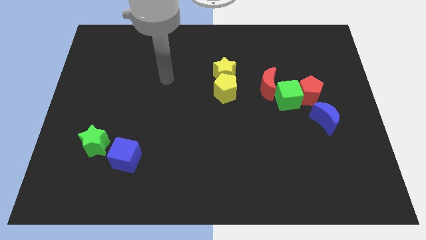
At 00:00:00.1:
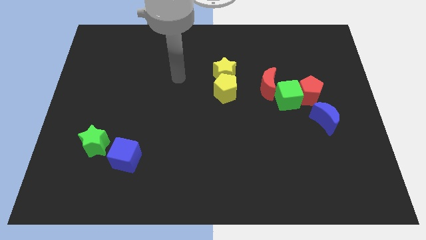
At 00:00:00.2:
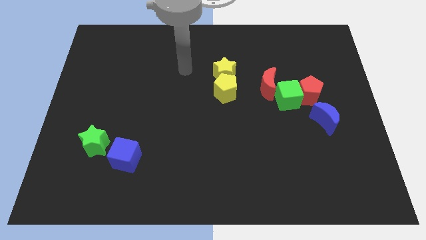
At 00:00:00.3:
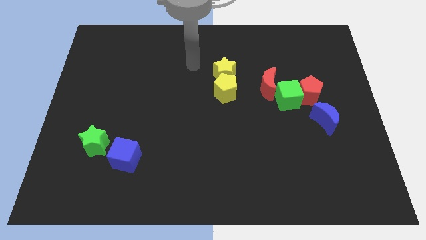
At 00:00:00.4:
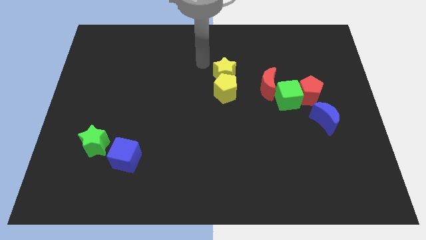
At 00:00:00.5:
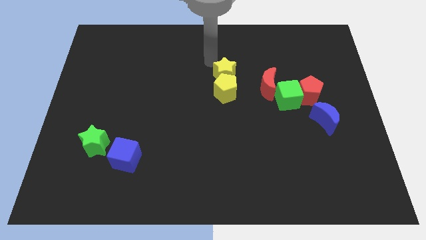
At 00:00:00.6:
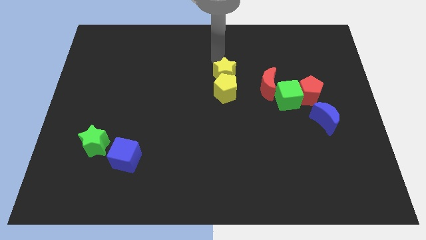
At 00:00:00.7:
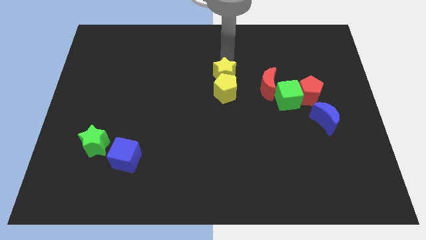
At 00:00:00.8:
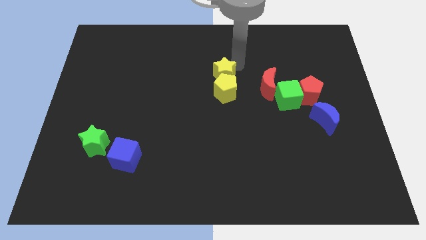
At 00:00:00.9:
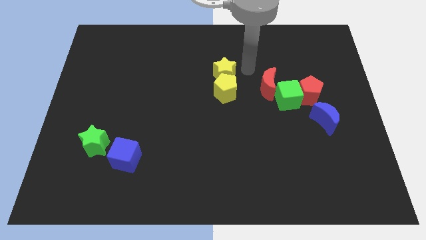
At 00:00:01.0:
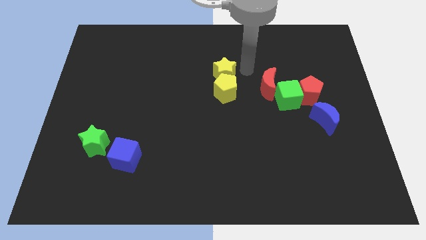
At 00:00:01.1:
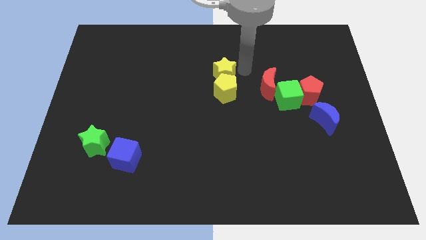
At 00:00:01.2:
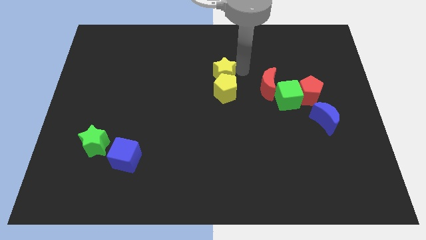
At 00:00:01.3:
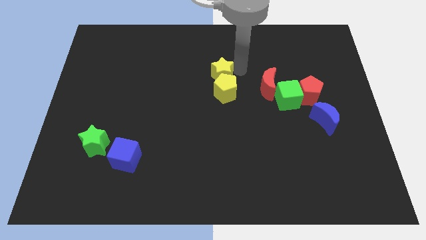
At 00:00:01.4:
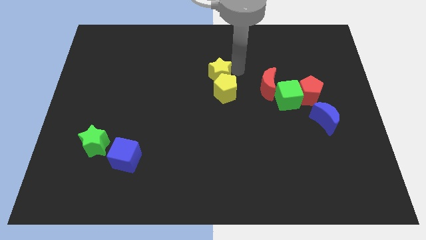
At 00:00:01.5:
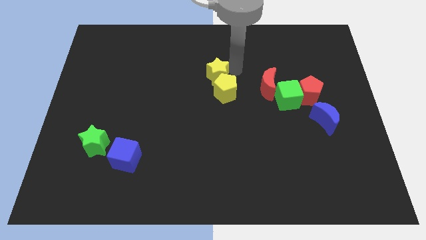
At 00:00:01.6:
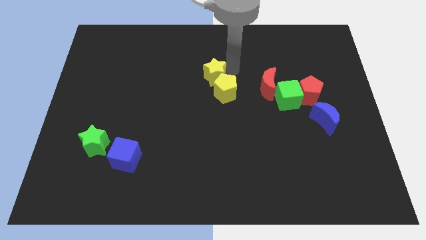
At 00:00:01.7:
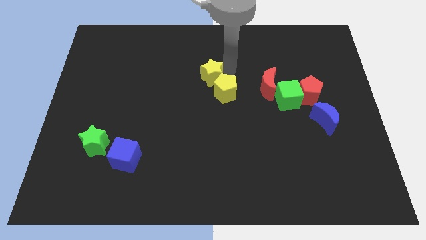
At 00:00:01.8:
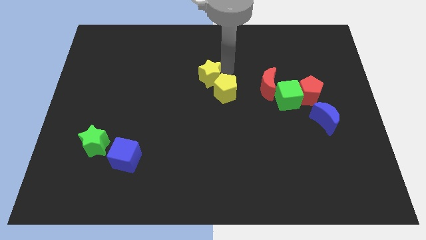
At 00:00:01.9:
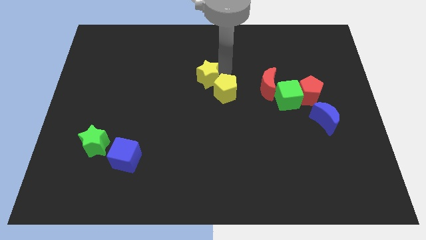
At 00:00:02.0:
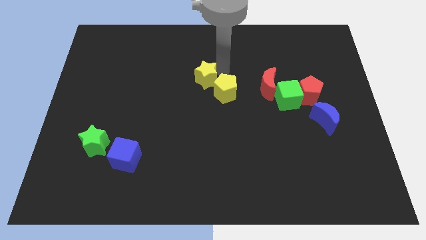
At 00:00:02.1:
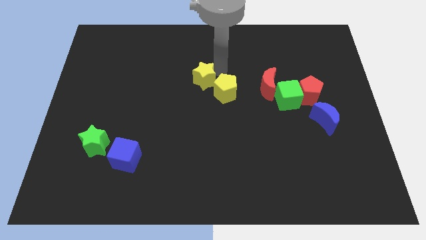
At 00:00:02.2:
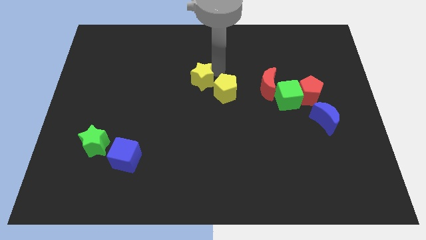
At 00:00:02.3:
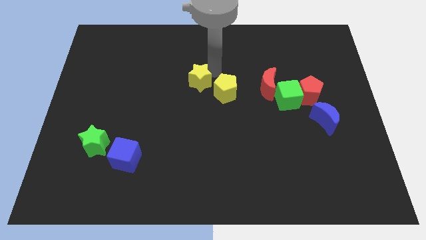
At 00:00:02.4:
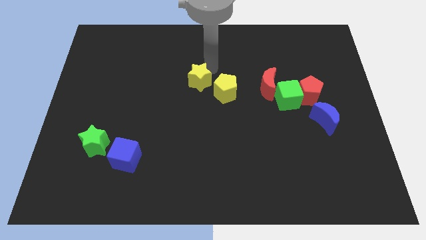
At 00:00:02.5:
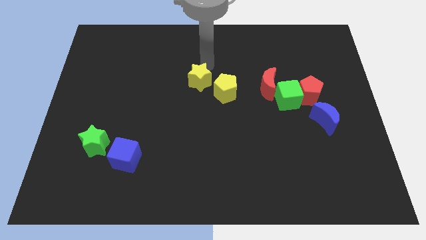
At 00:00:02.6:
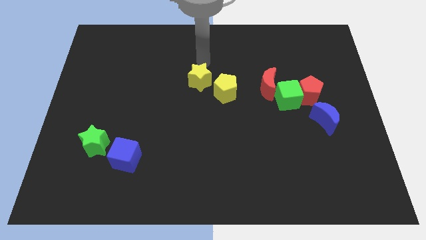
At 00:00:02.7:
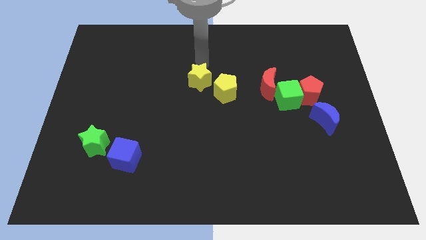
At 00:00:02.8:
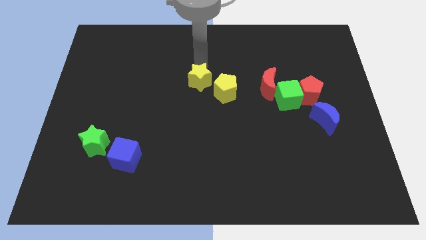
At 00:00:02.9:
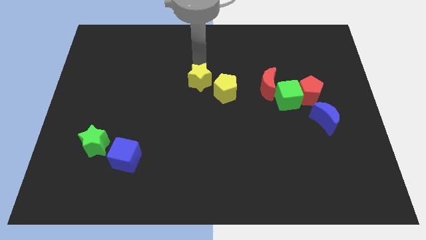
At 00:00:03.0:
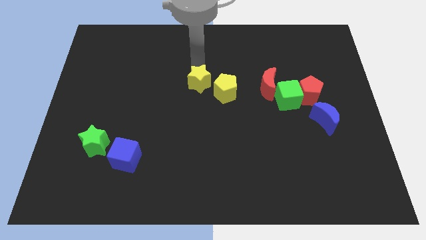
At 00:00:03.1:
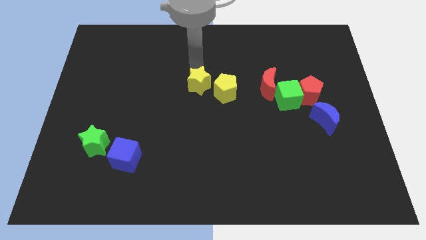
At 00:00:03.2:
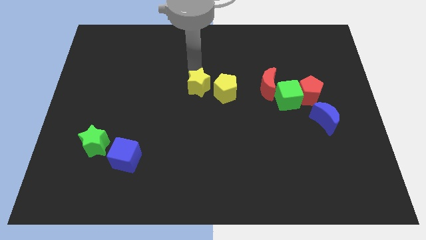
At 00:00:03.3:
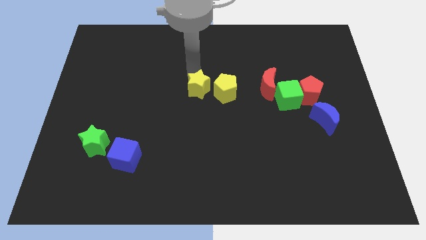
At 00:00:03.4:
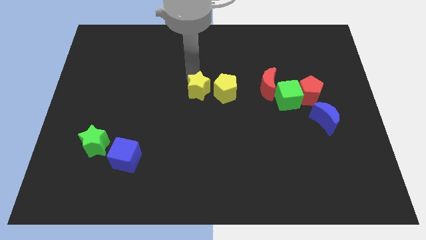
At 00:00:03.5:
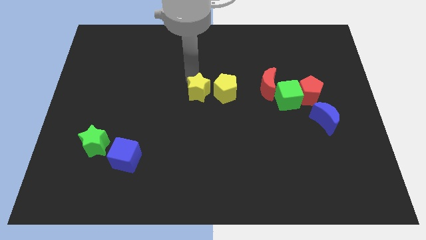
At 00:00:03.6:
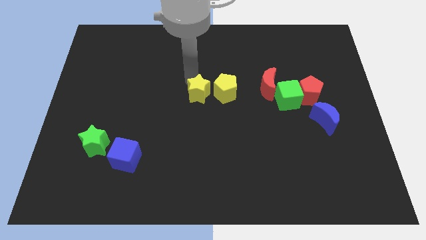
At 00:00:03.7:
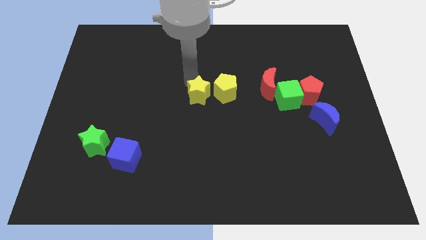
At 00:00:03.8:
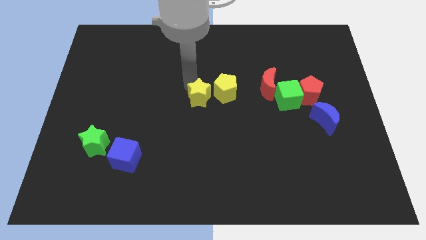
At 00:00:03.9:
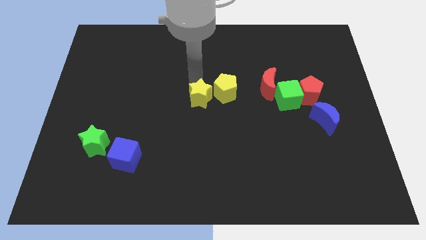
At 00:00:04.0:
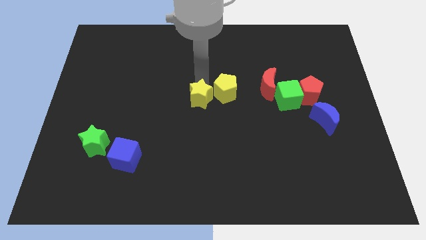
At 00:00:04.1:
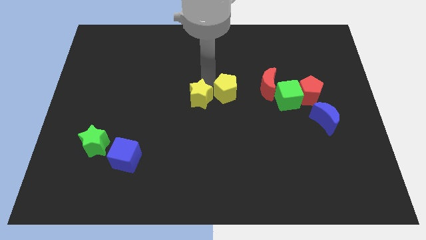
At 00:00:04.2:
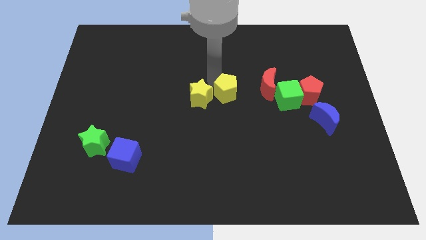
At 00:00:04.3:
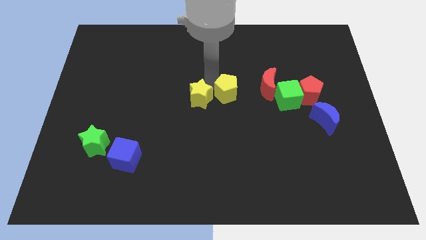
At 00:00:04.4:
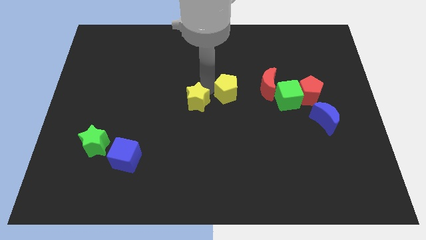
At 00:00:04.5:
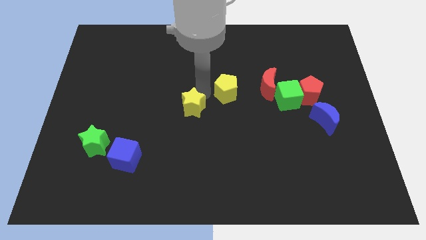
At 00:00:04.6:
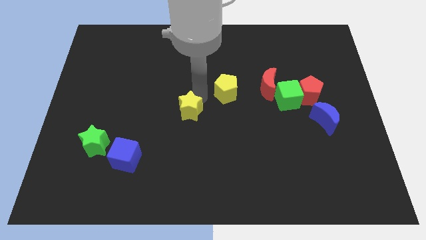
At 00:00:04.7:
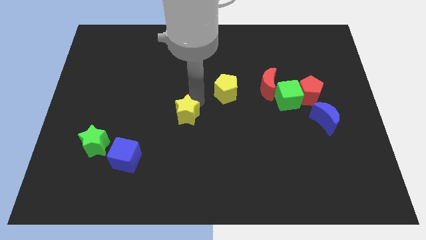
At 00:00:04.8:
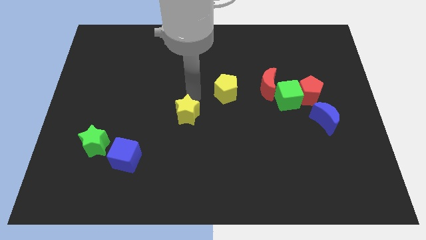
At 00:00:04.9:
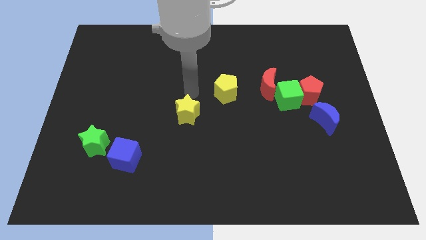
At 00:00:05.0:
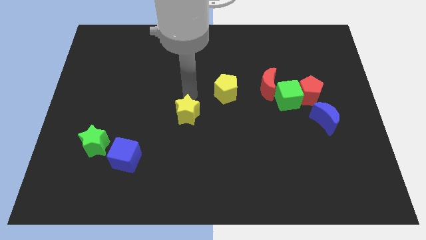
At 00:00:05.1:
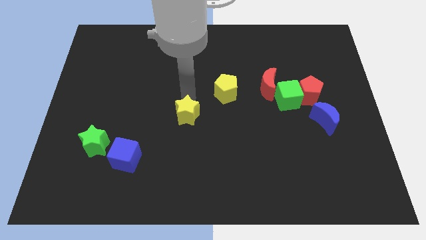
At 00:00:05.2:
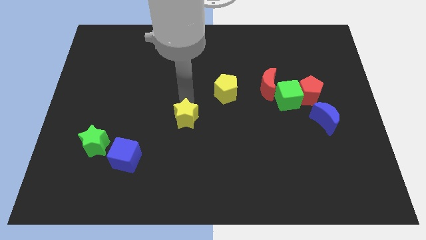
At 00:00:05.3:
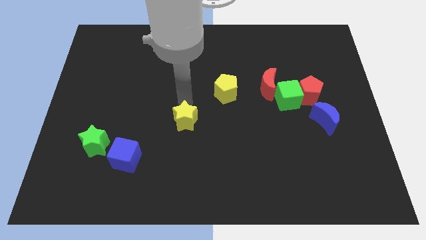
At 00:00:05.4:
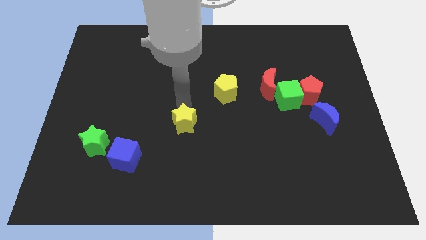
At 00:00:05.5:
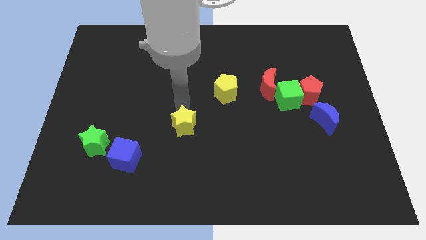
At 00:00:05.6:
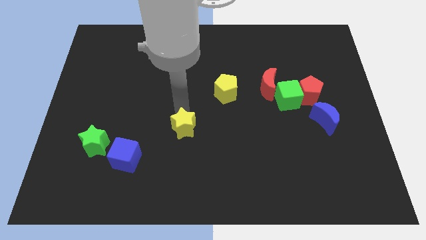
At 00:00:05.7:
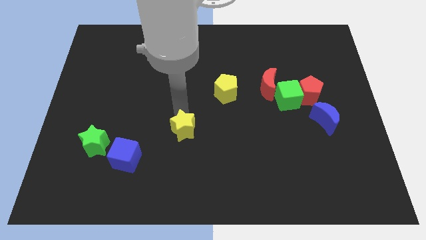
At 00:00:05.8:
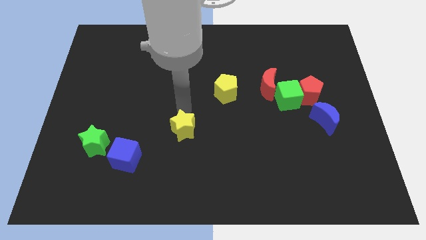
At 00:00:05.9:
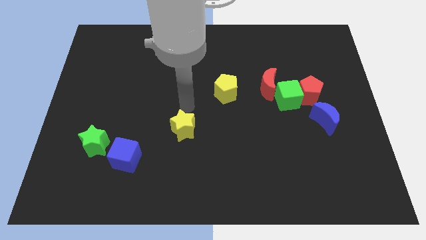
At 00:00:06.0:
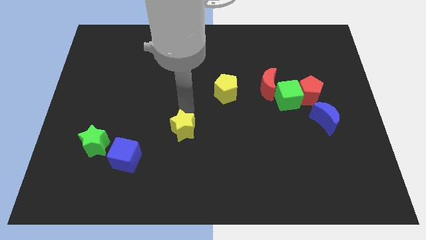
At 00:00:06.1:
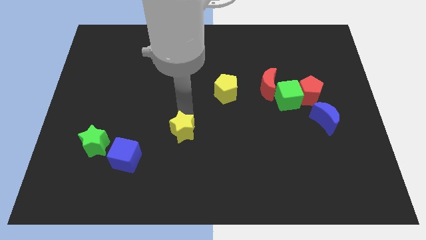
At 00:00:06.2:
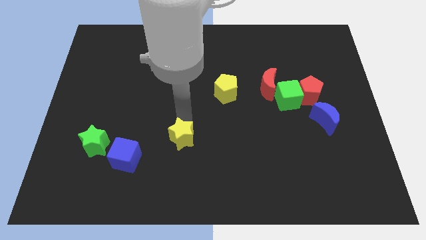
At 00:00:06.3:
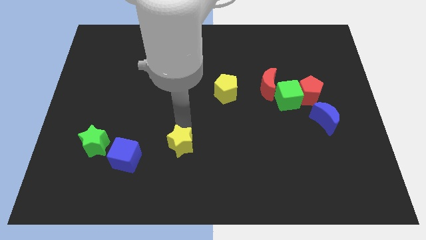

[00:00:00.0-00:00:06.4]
move the yellow star right of the blue cube
